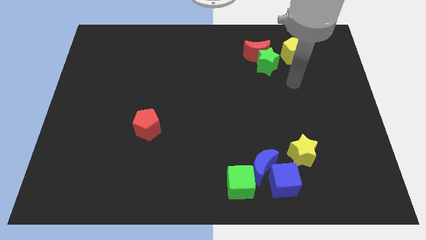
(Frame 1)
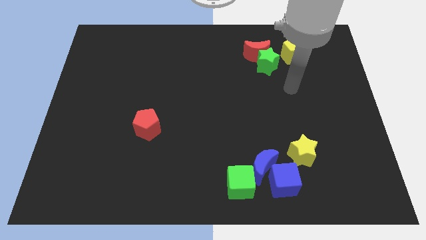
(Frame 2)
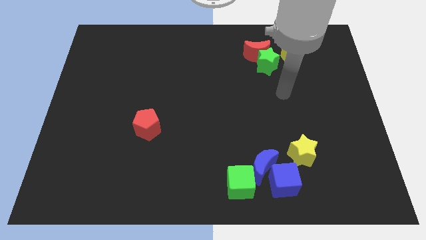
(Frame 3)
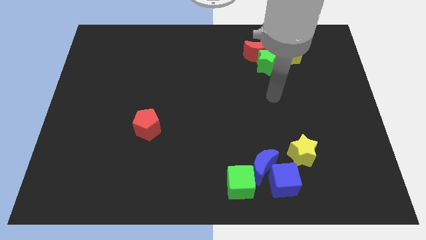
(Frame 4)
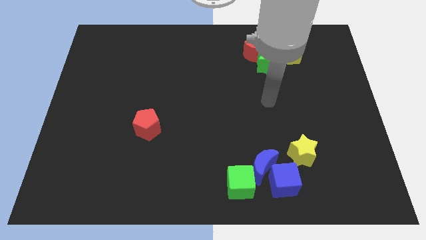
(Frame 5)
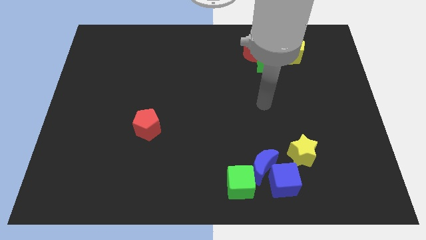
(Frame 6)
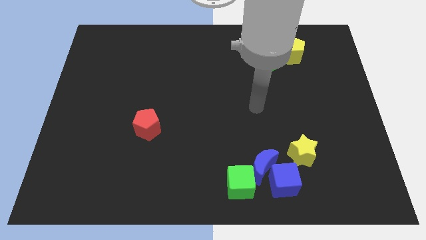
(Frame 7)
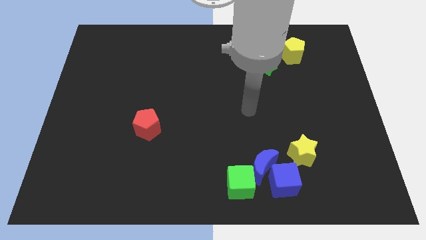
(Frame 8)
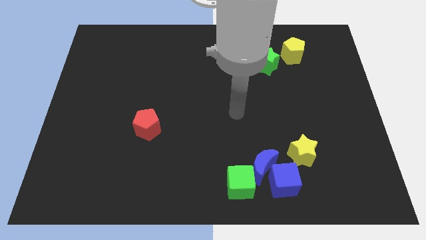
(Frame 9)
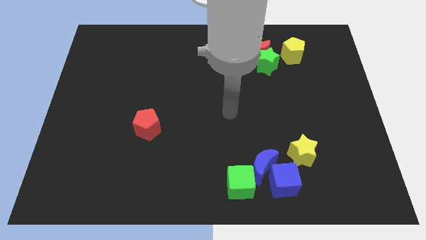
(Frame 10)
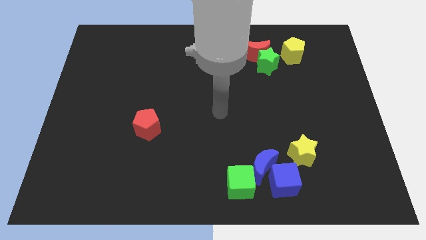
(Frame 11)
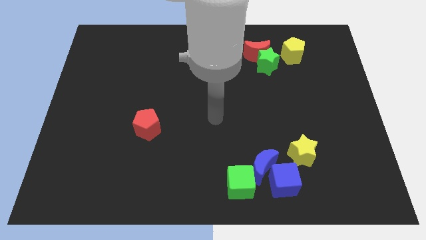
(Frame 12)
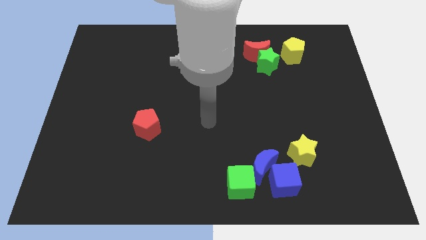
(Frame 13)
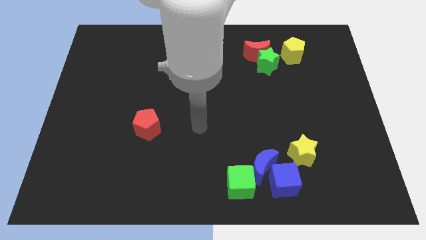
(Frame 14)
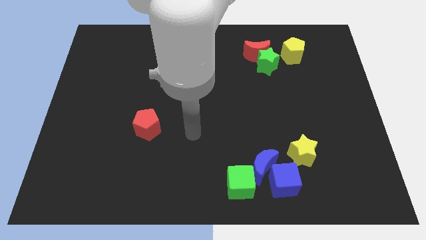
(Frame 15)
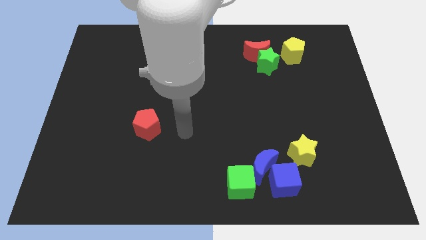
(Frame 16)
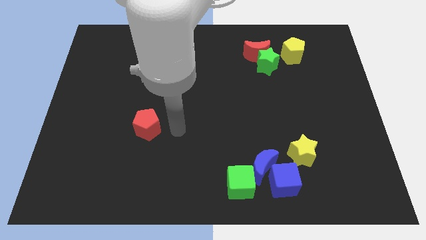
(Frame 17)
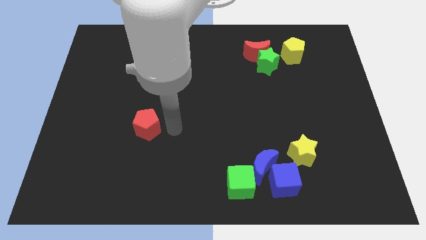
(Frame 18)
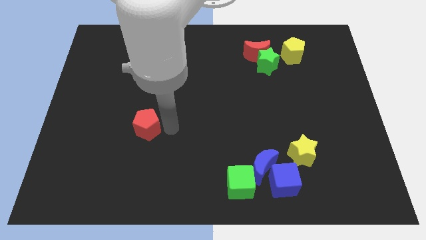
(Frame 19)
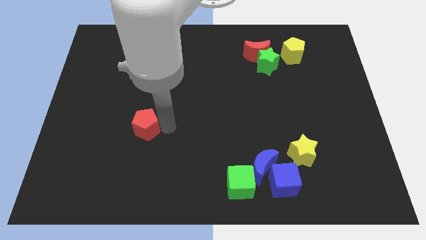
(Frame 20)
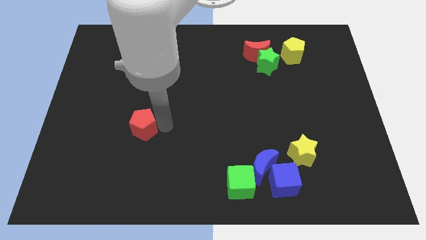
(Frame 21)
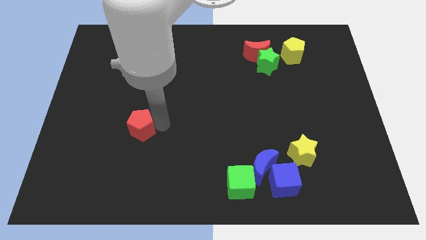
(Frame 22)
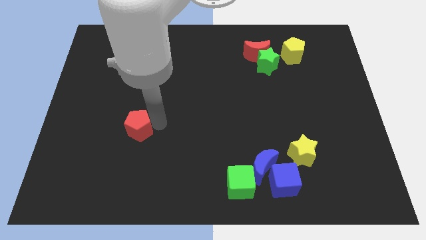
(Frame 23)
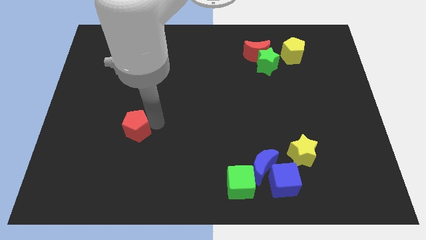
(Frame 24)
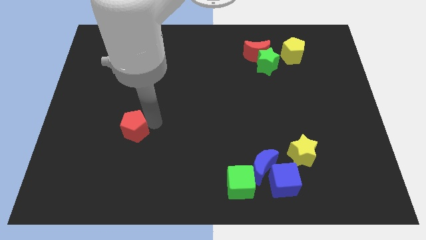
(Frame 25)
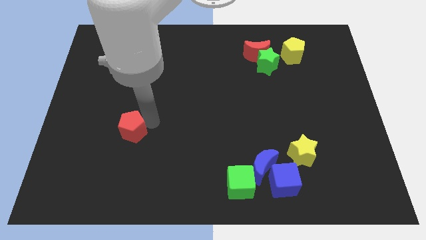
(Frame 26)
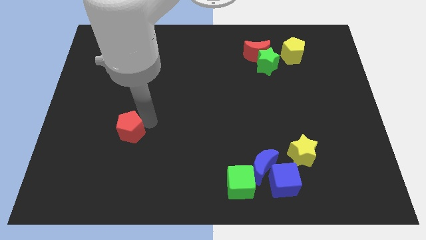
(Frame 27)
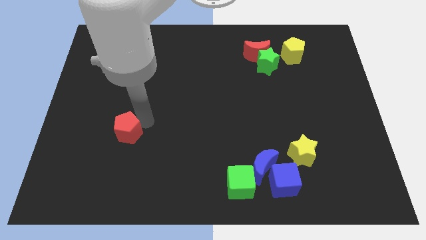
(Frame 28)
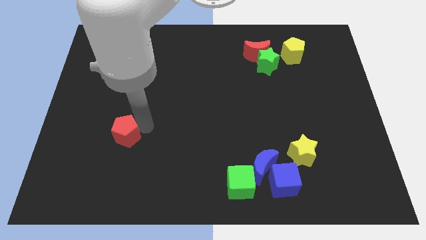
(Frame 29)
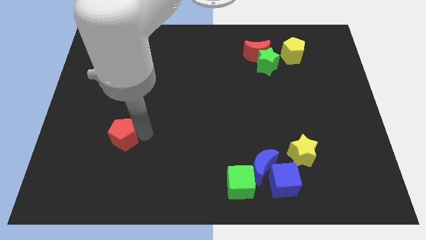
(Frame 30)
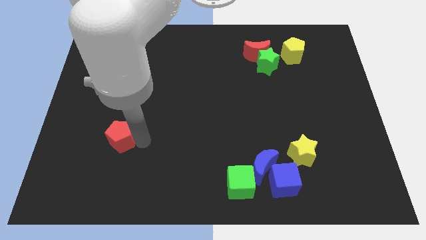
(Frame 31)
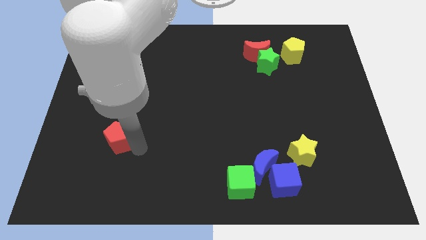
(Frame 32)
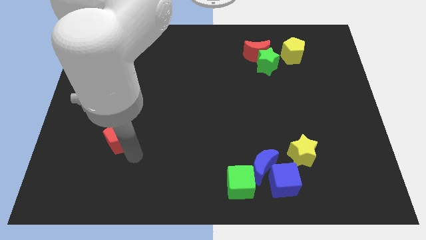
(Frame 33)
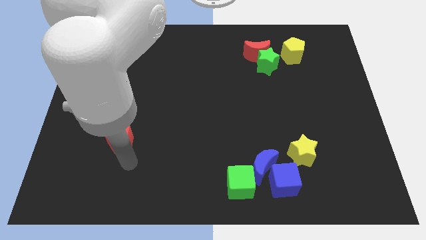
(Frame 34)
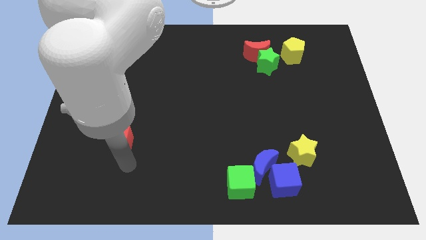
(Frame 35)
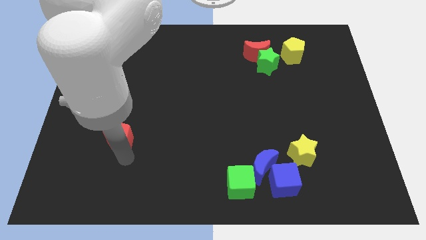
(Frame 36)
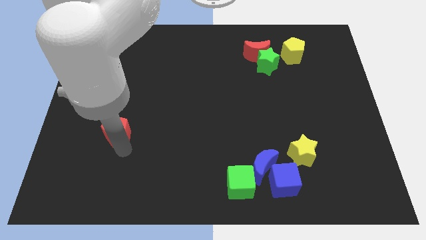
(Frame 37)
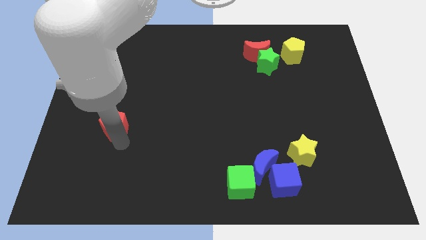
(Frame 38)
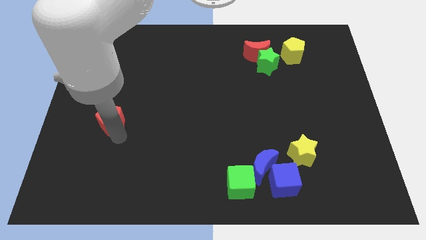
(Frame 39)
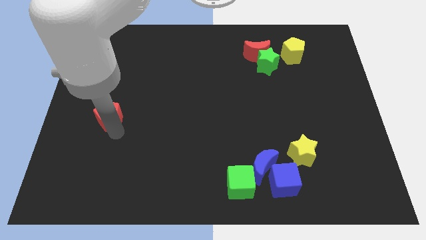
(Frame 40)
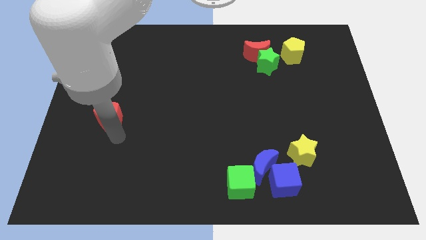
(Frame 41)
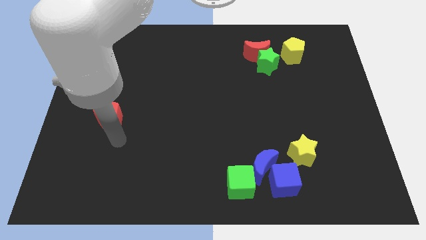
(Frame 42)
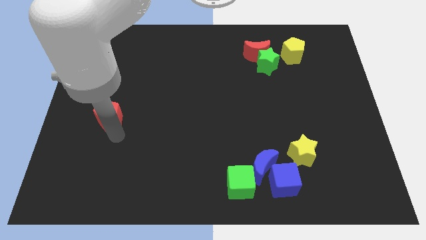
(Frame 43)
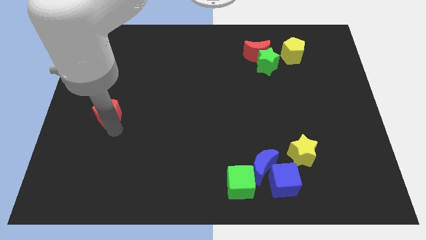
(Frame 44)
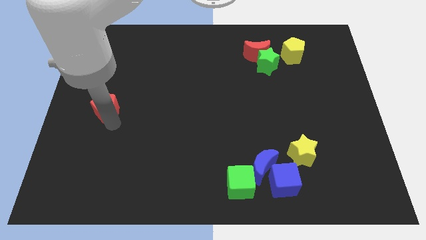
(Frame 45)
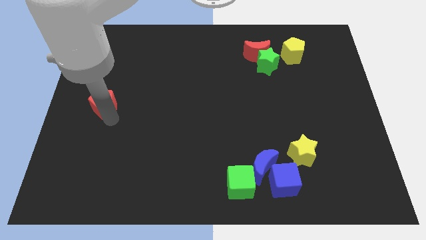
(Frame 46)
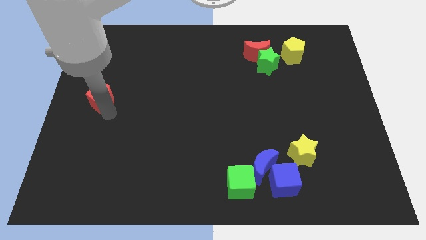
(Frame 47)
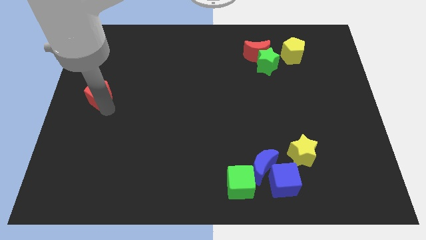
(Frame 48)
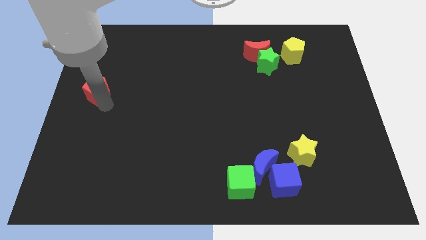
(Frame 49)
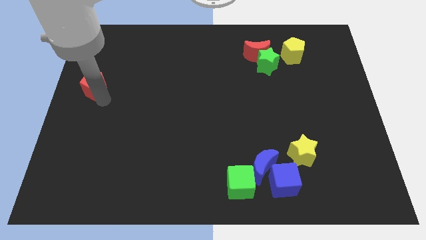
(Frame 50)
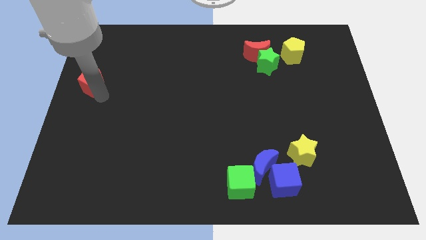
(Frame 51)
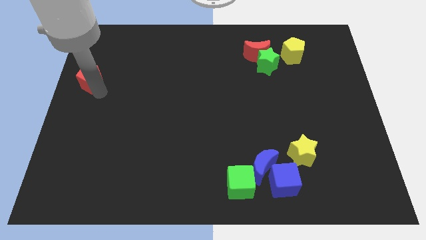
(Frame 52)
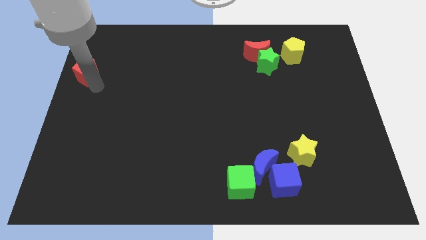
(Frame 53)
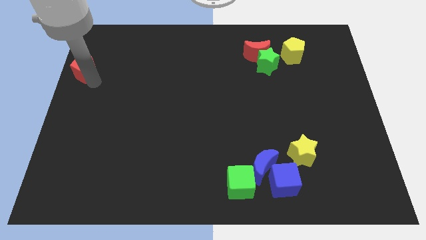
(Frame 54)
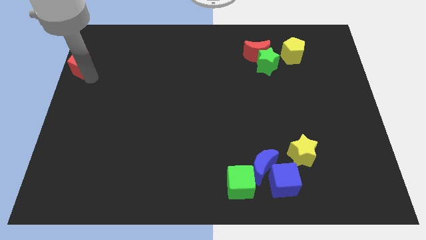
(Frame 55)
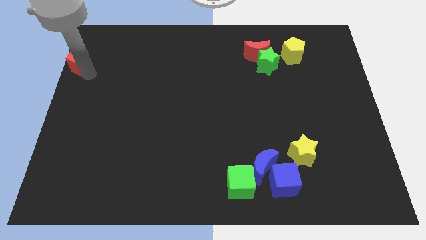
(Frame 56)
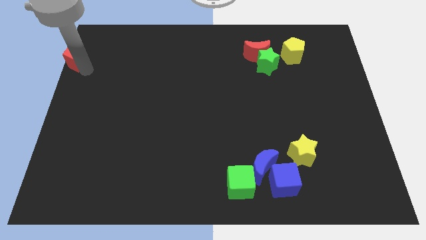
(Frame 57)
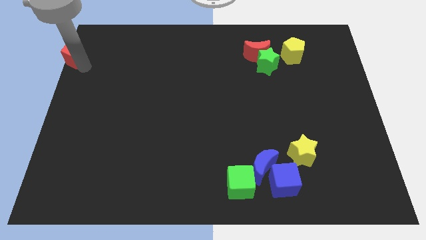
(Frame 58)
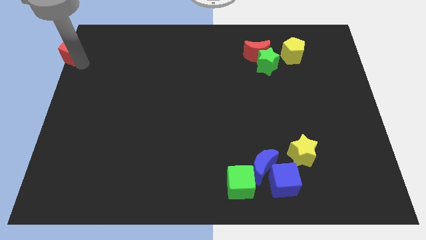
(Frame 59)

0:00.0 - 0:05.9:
move the red pentagon to the top left
